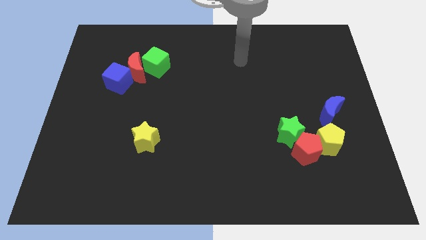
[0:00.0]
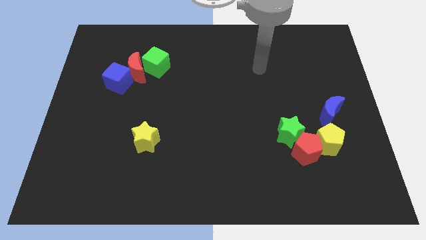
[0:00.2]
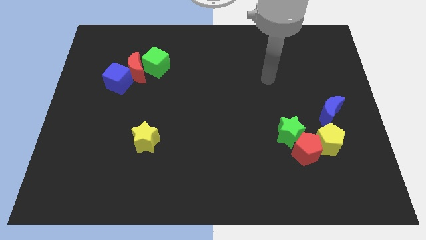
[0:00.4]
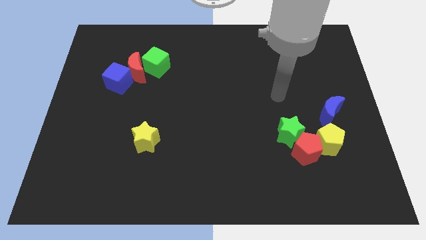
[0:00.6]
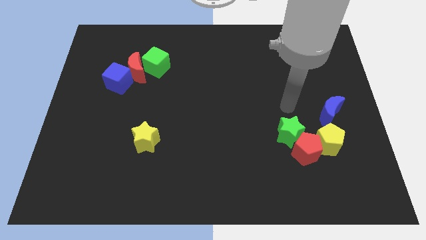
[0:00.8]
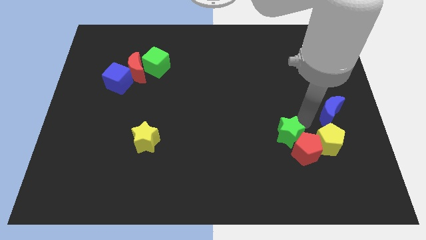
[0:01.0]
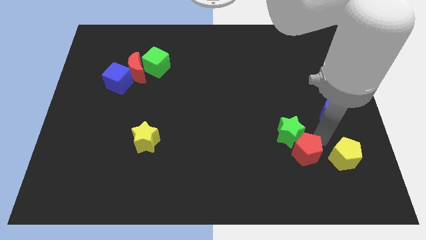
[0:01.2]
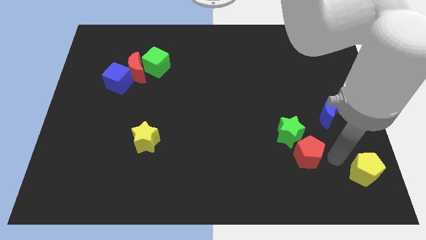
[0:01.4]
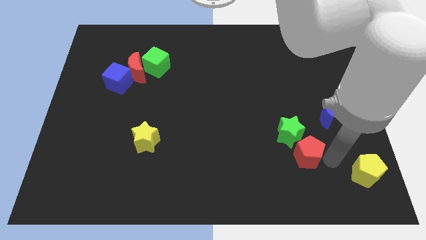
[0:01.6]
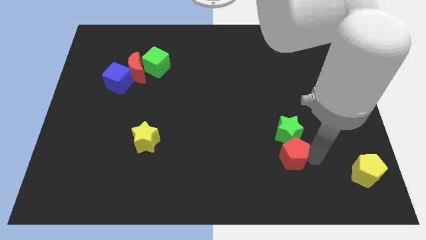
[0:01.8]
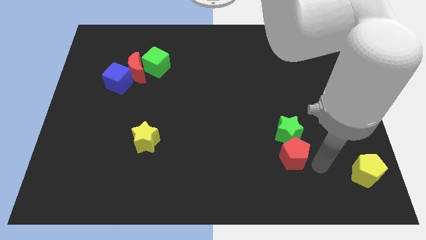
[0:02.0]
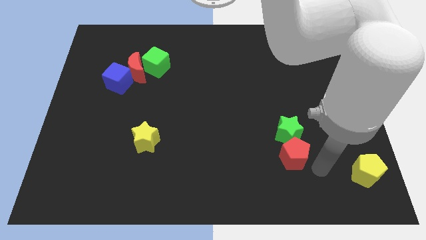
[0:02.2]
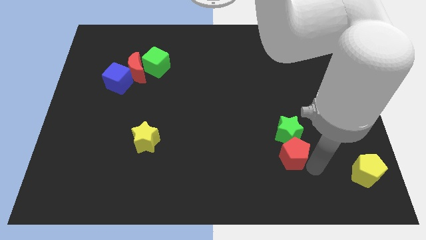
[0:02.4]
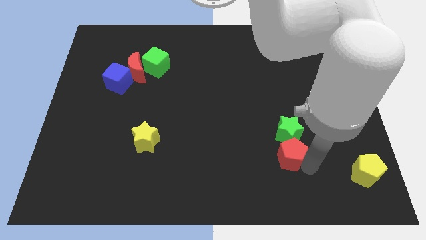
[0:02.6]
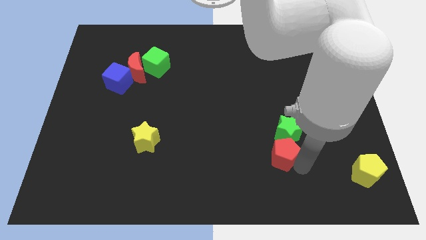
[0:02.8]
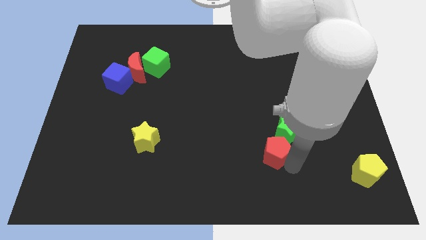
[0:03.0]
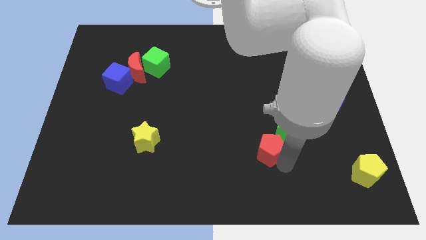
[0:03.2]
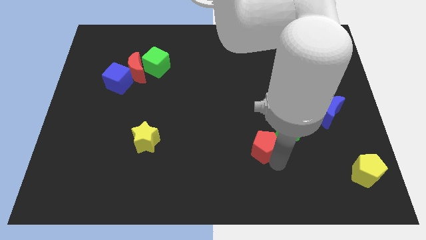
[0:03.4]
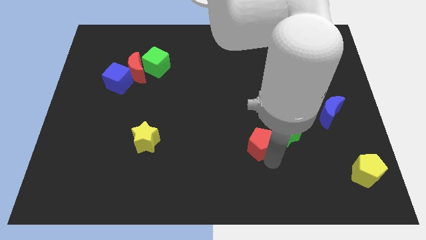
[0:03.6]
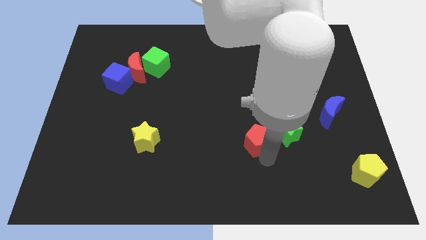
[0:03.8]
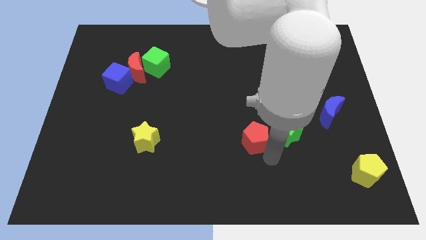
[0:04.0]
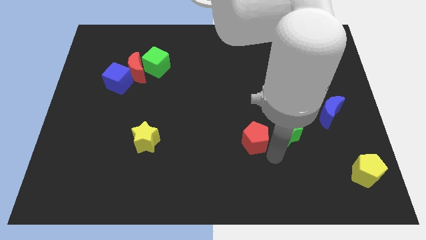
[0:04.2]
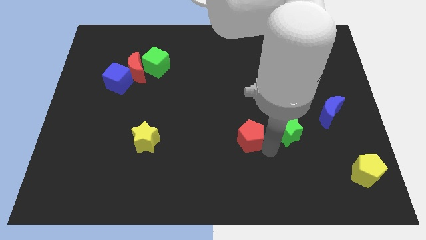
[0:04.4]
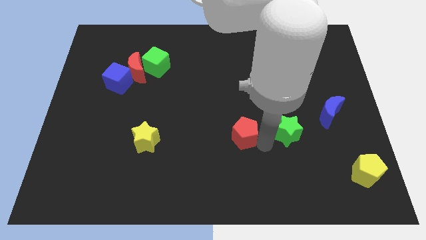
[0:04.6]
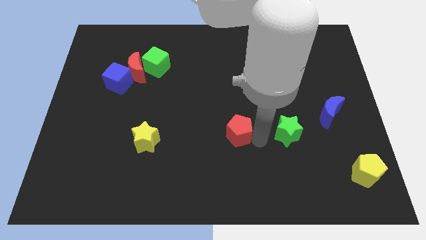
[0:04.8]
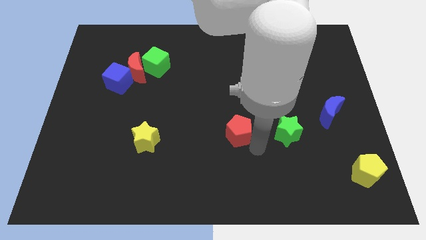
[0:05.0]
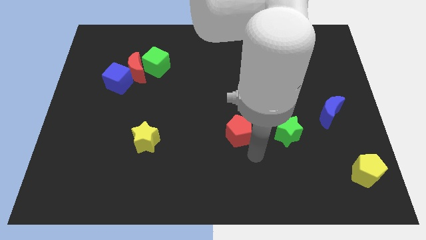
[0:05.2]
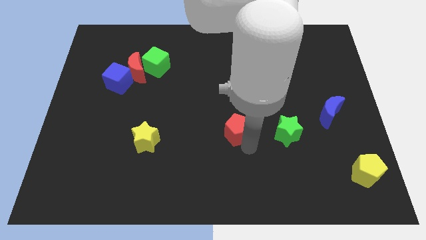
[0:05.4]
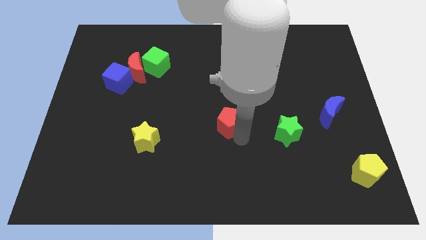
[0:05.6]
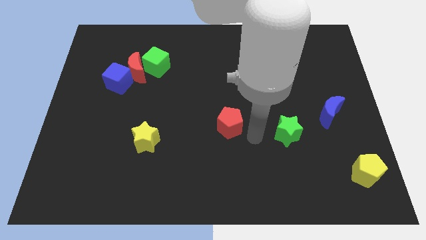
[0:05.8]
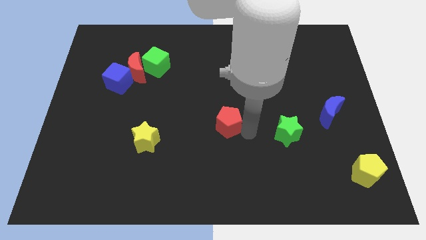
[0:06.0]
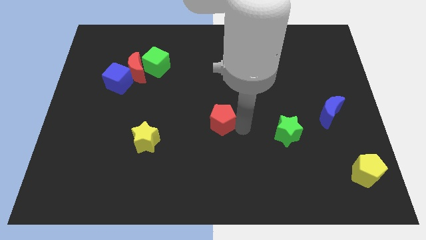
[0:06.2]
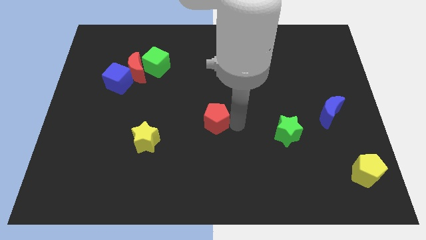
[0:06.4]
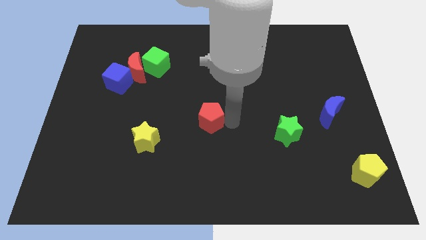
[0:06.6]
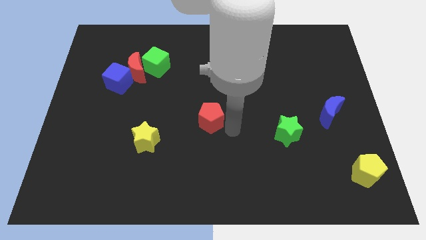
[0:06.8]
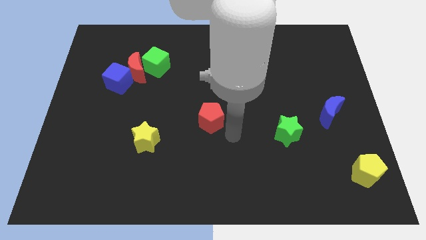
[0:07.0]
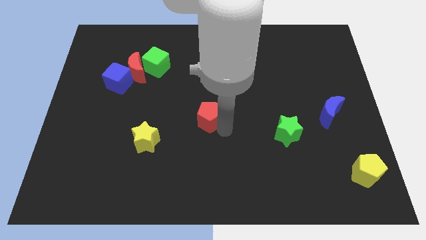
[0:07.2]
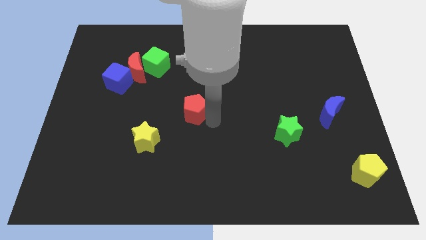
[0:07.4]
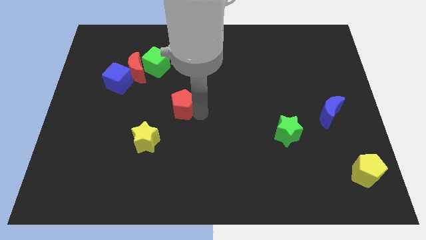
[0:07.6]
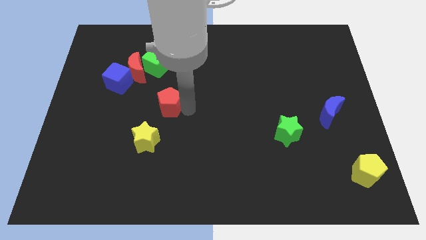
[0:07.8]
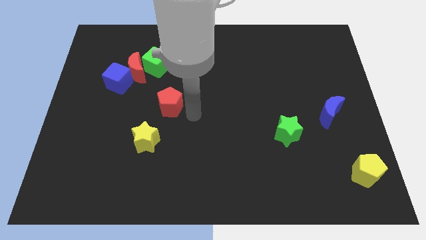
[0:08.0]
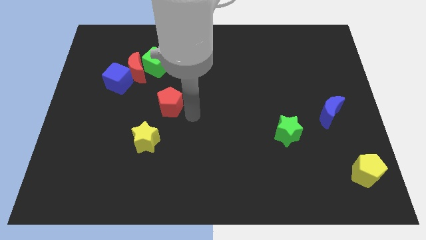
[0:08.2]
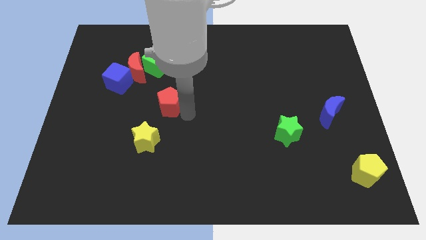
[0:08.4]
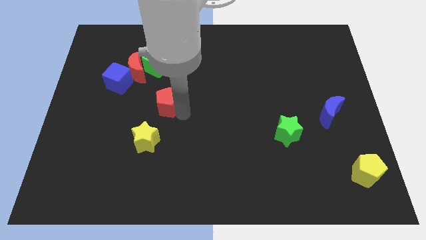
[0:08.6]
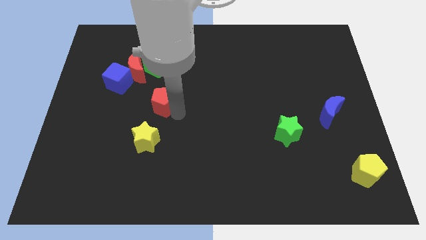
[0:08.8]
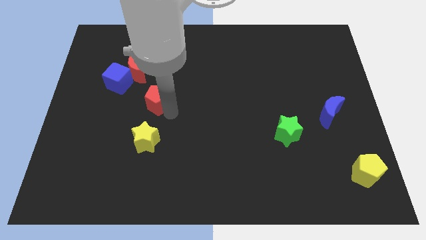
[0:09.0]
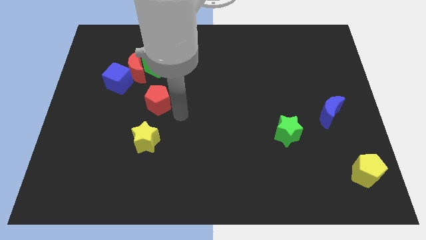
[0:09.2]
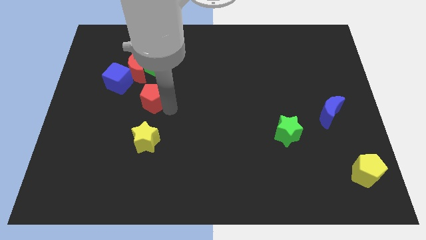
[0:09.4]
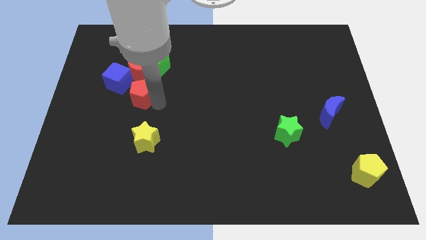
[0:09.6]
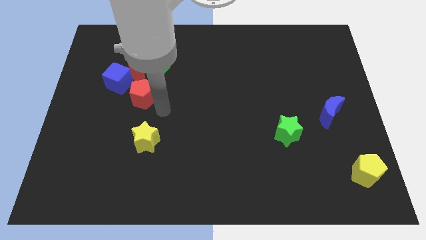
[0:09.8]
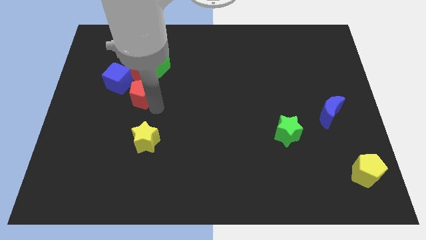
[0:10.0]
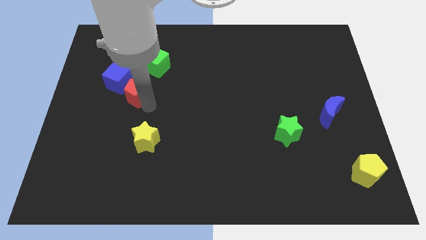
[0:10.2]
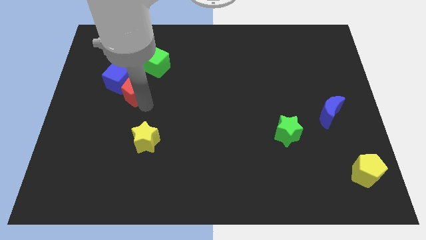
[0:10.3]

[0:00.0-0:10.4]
push the red pentagon towards the blue cube

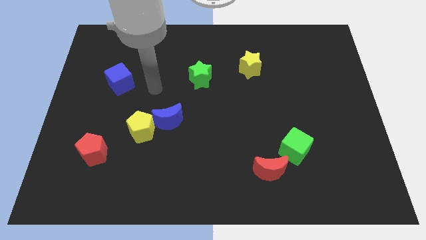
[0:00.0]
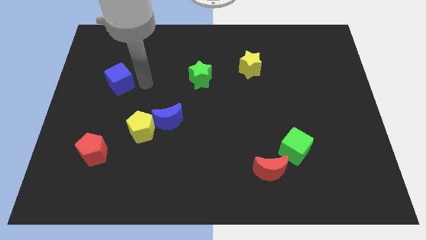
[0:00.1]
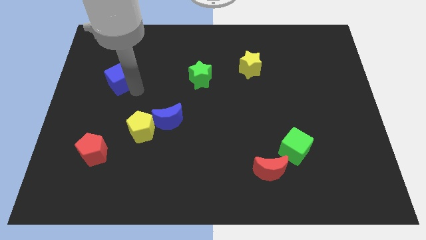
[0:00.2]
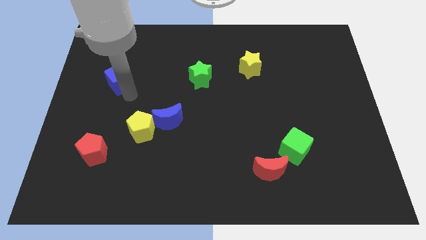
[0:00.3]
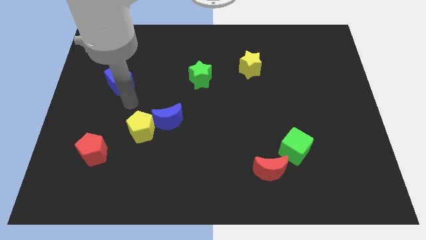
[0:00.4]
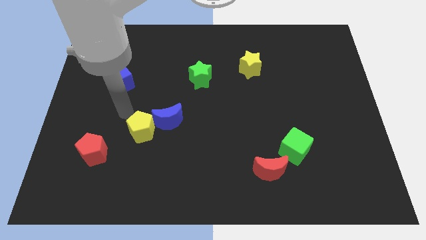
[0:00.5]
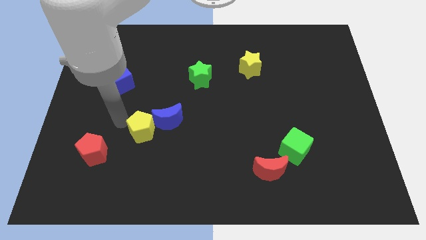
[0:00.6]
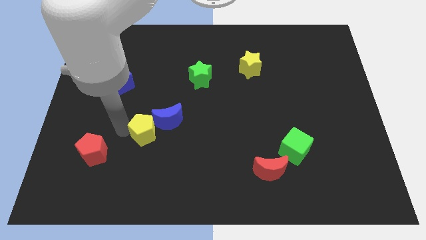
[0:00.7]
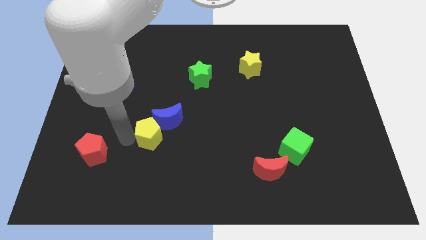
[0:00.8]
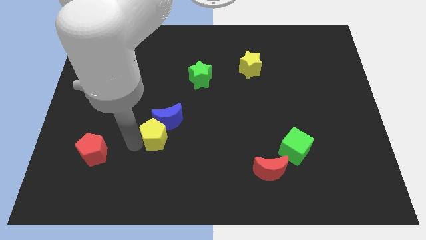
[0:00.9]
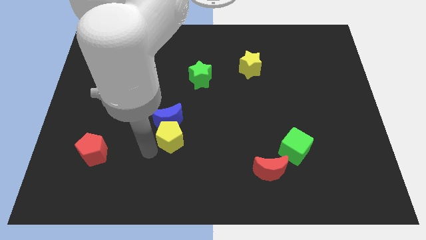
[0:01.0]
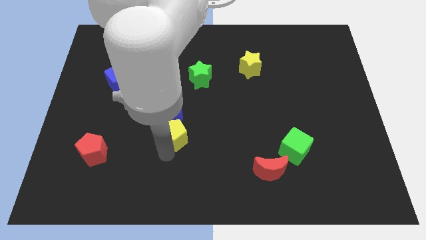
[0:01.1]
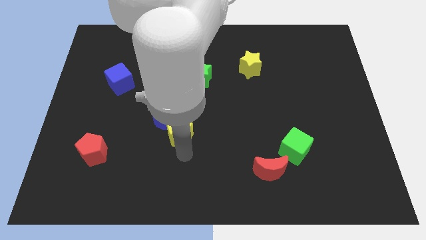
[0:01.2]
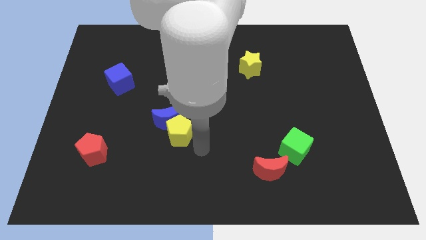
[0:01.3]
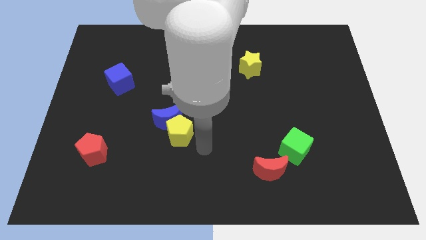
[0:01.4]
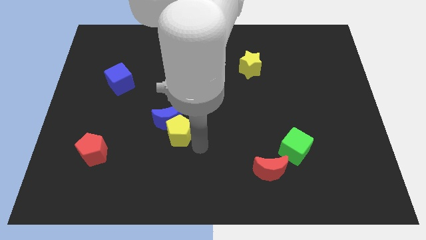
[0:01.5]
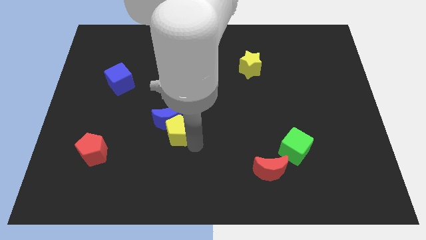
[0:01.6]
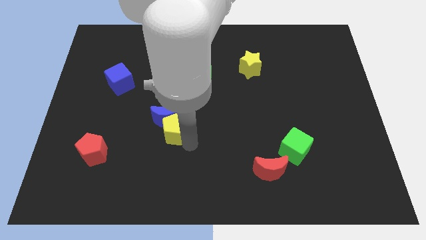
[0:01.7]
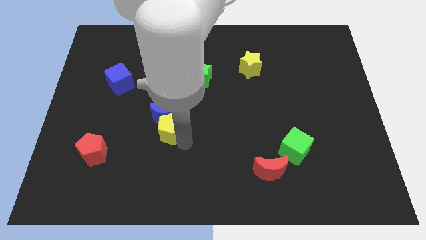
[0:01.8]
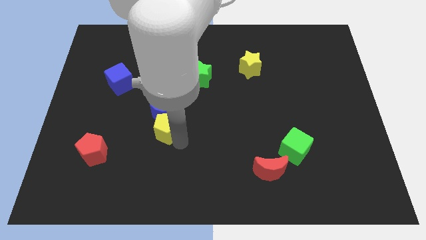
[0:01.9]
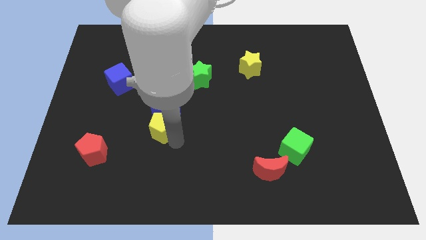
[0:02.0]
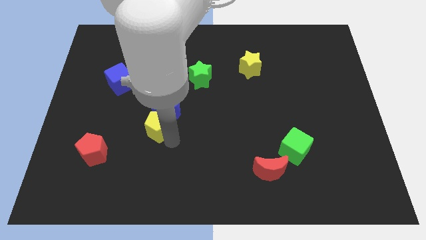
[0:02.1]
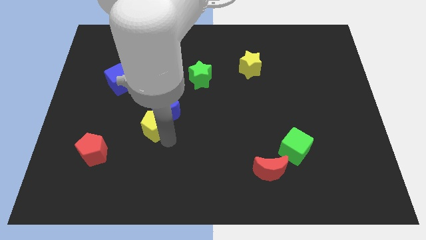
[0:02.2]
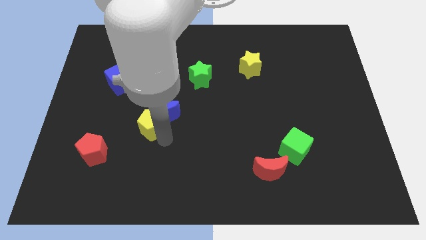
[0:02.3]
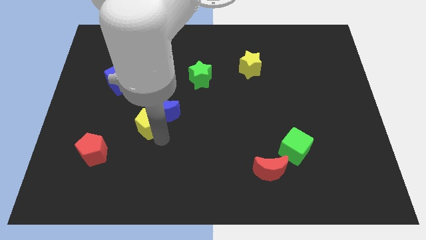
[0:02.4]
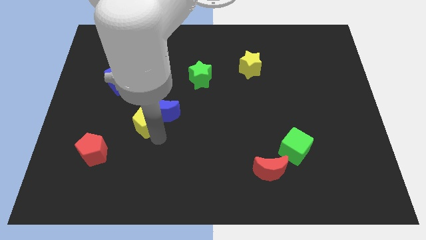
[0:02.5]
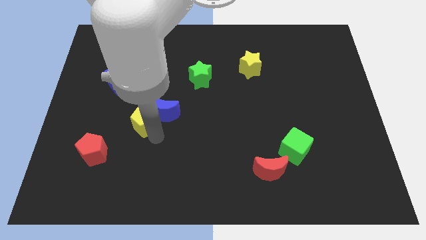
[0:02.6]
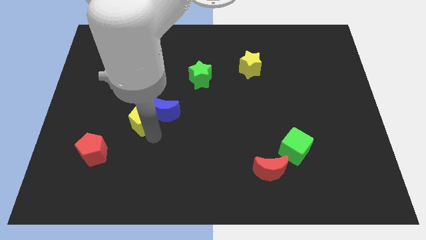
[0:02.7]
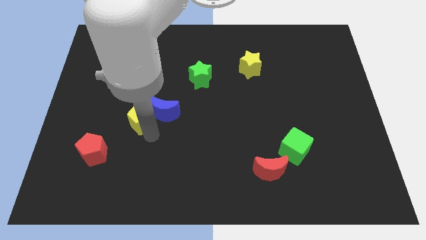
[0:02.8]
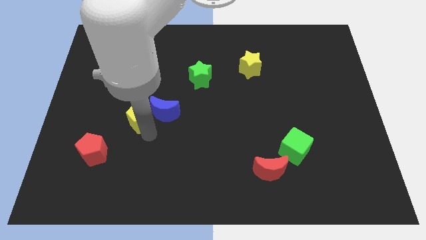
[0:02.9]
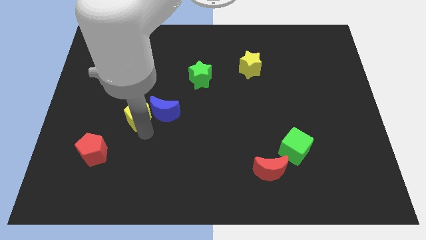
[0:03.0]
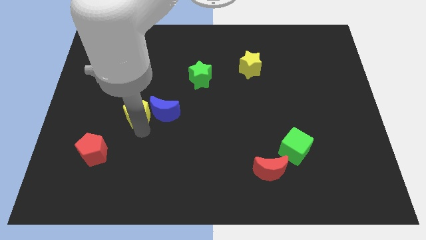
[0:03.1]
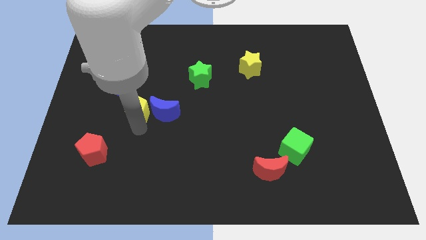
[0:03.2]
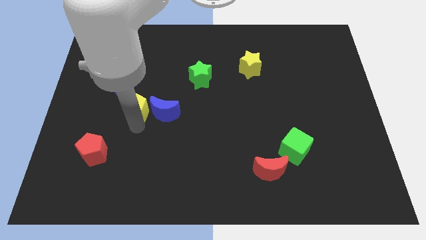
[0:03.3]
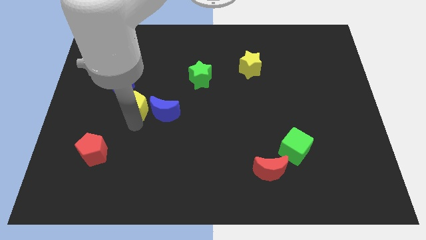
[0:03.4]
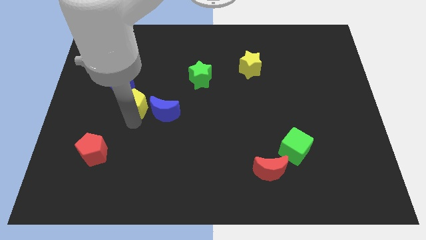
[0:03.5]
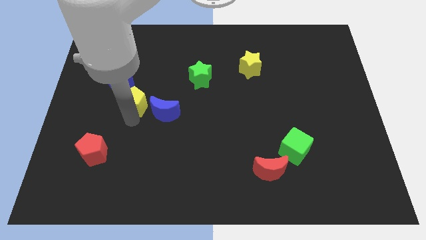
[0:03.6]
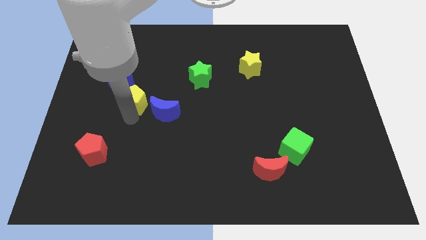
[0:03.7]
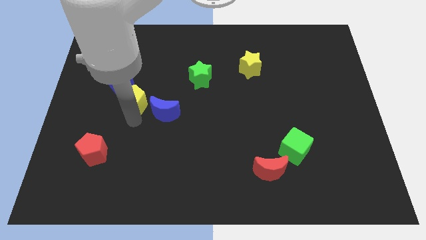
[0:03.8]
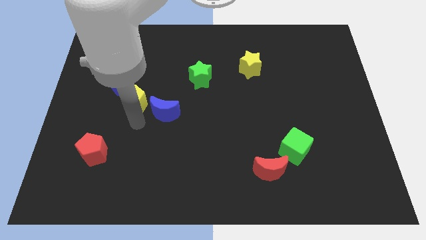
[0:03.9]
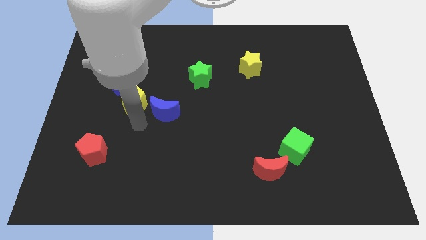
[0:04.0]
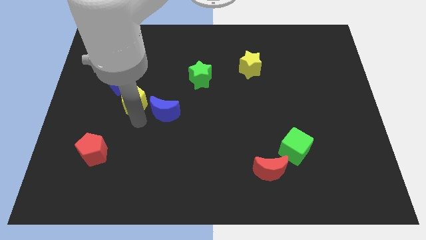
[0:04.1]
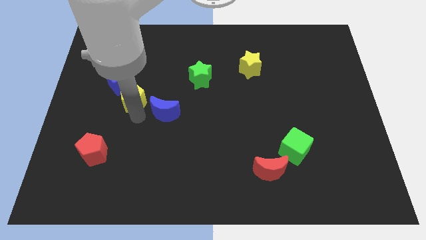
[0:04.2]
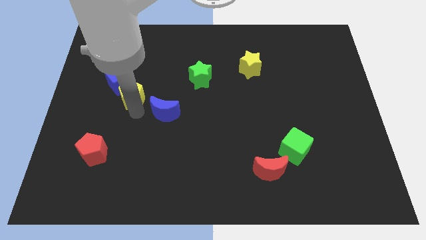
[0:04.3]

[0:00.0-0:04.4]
put the yellow pentagon to the blue cube
